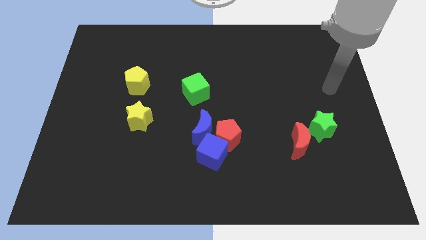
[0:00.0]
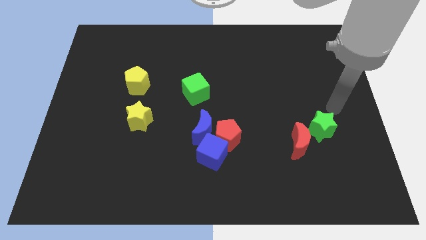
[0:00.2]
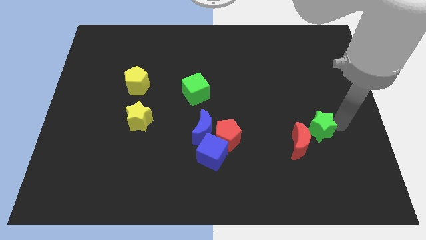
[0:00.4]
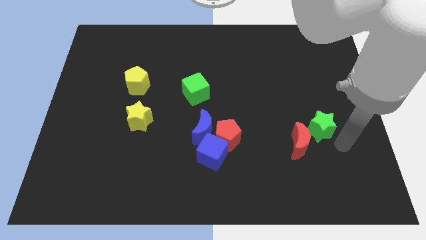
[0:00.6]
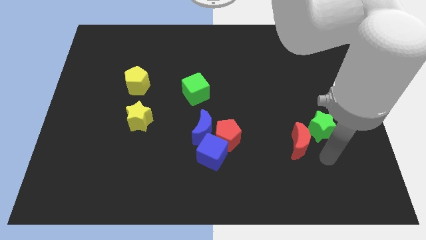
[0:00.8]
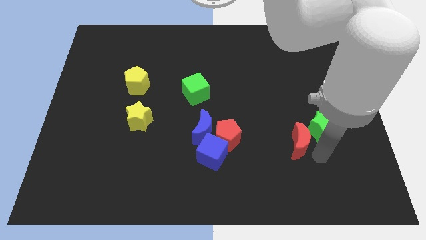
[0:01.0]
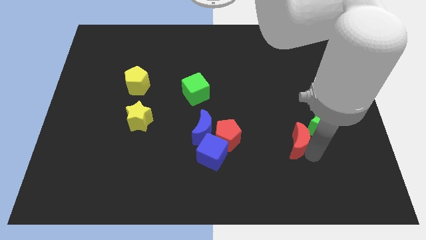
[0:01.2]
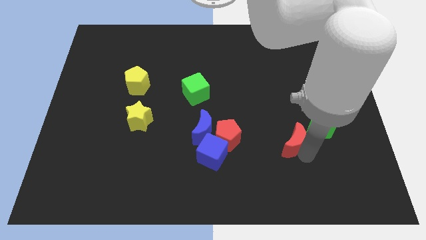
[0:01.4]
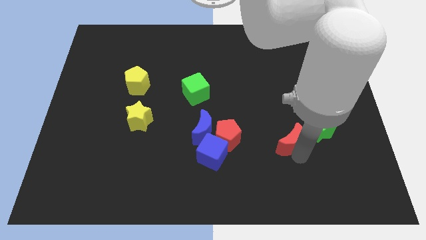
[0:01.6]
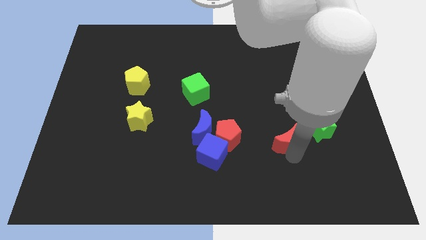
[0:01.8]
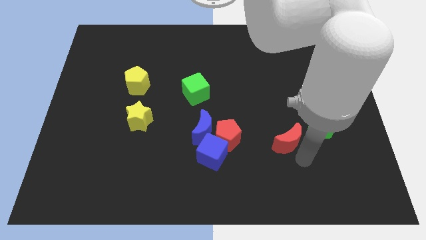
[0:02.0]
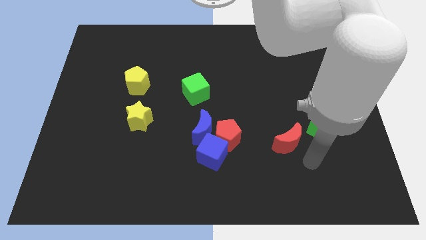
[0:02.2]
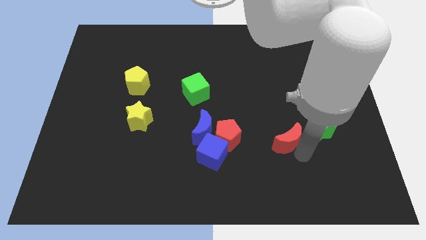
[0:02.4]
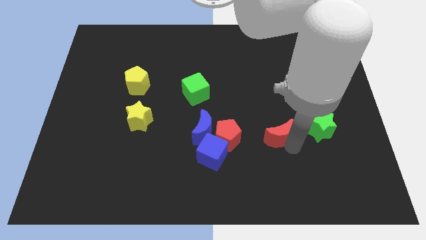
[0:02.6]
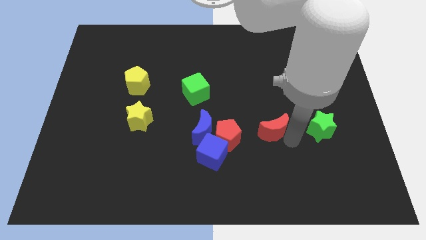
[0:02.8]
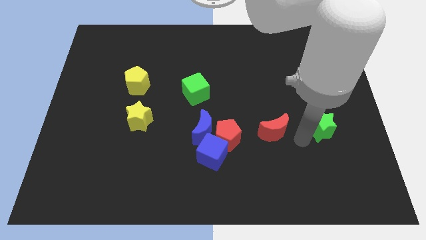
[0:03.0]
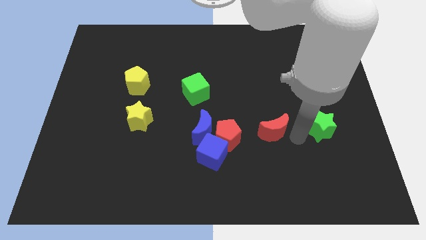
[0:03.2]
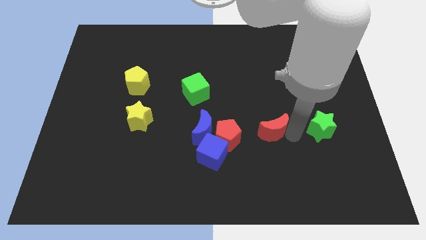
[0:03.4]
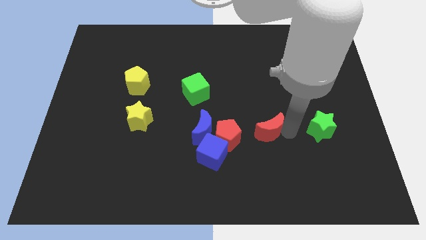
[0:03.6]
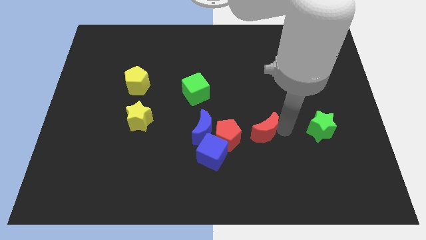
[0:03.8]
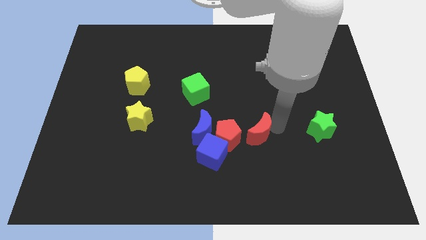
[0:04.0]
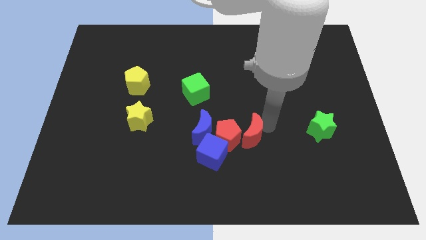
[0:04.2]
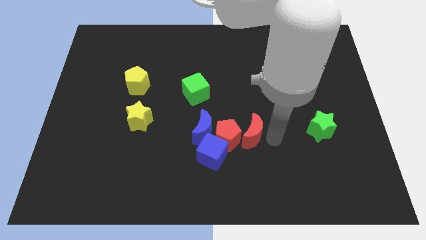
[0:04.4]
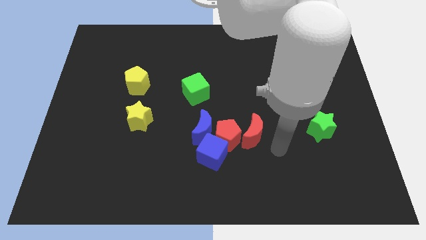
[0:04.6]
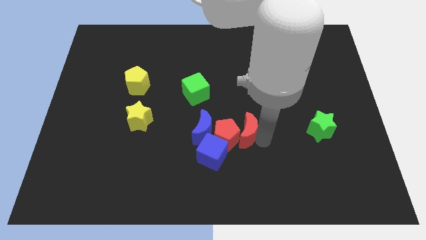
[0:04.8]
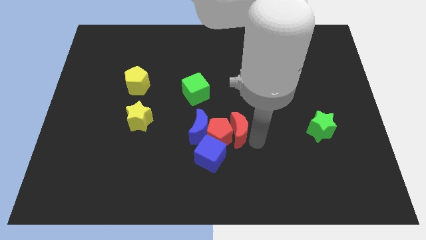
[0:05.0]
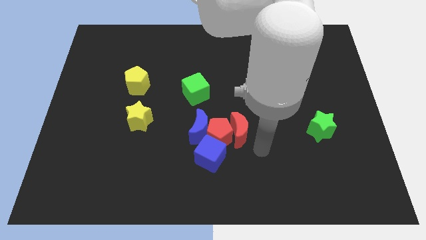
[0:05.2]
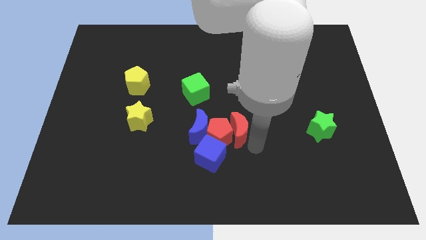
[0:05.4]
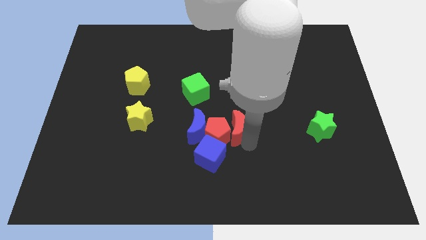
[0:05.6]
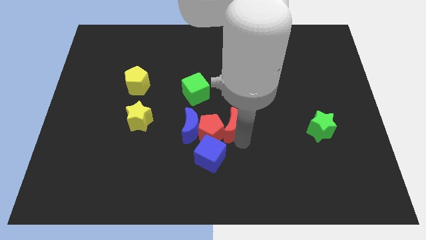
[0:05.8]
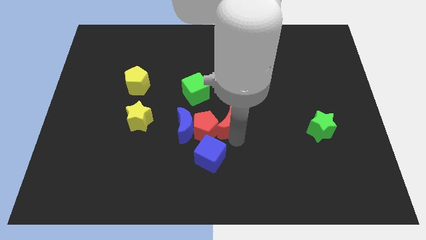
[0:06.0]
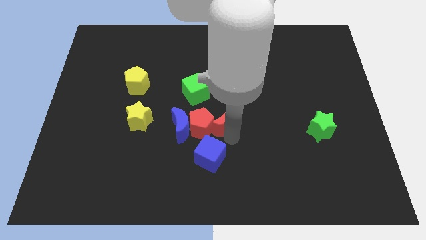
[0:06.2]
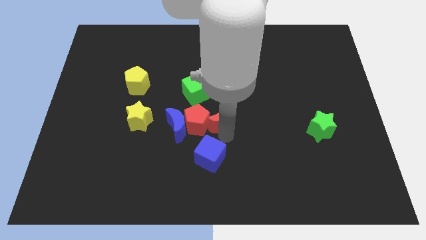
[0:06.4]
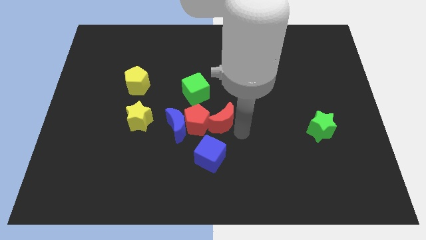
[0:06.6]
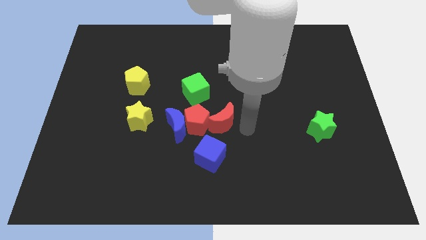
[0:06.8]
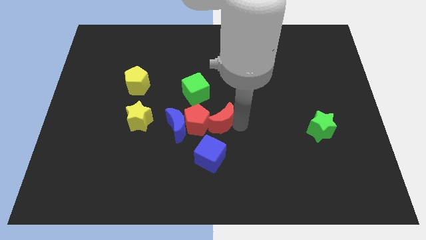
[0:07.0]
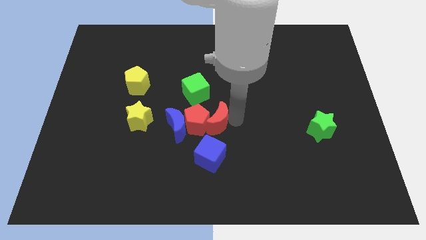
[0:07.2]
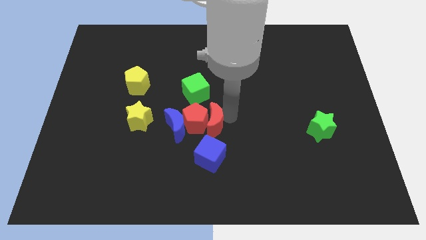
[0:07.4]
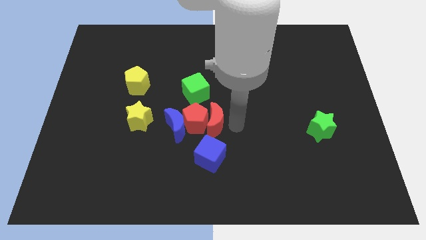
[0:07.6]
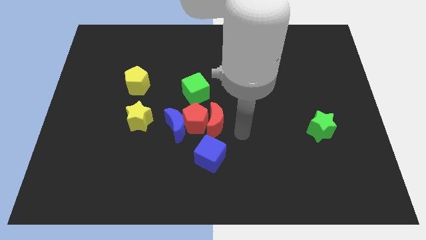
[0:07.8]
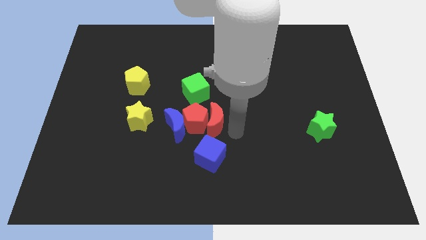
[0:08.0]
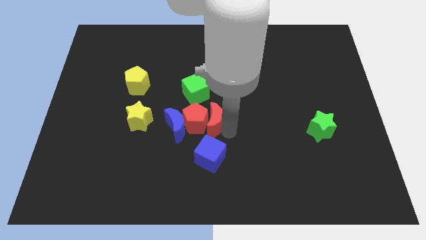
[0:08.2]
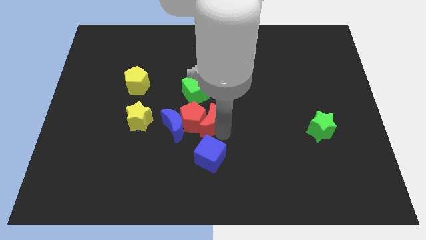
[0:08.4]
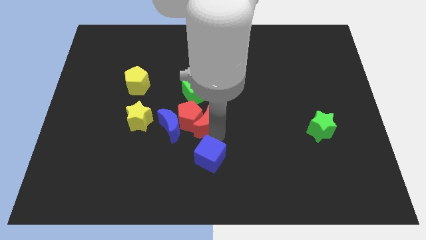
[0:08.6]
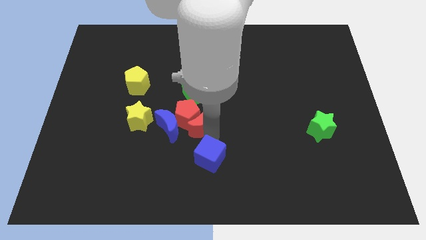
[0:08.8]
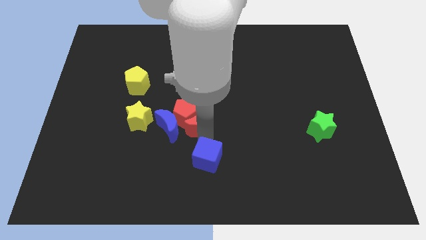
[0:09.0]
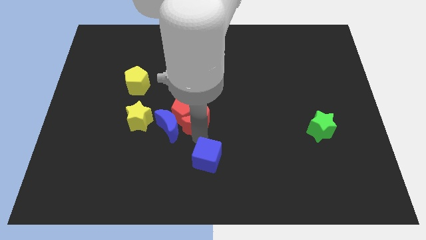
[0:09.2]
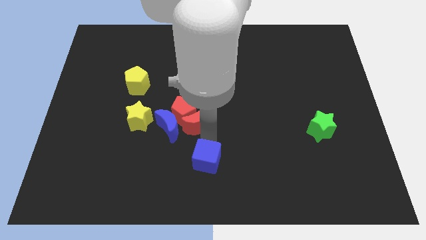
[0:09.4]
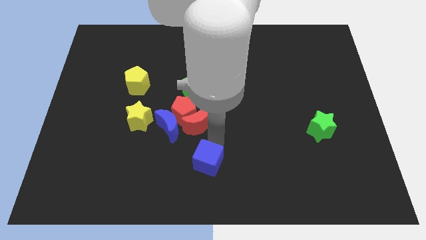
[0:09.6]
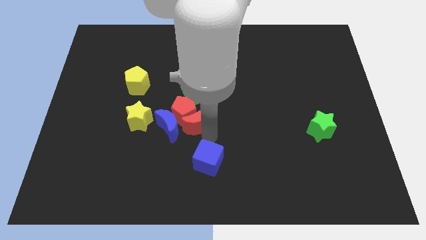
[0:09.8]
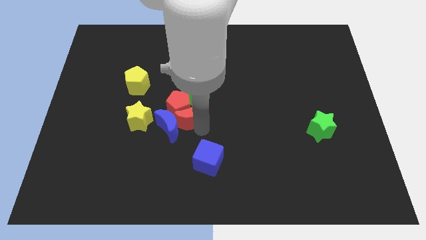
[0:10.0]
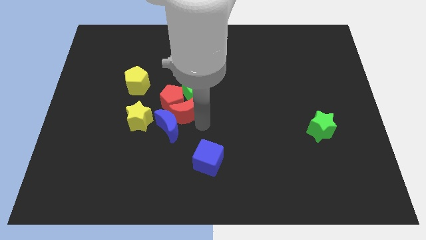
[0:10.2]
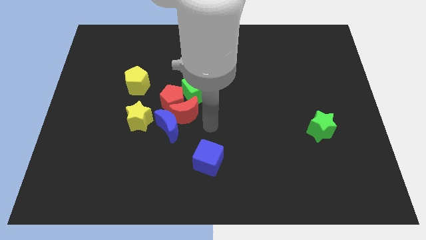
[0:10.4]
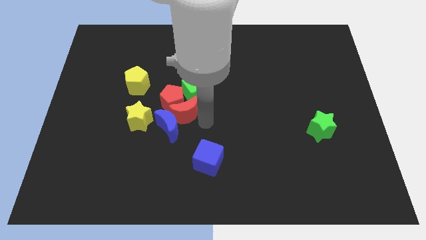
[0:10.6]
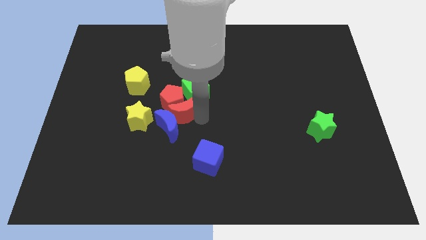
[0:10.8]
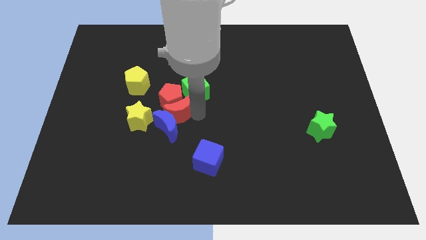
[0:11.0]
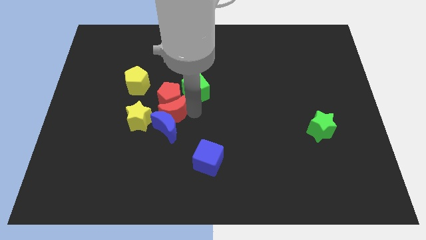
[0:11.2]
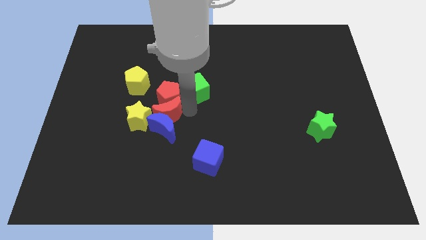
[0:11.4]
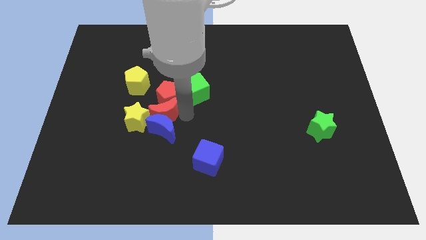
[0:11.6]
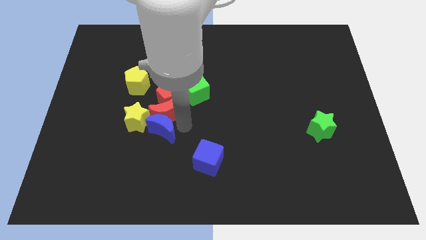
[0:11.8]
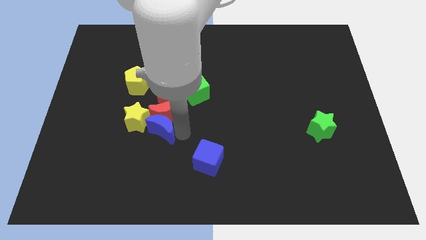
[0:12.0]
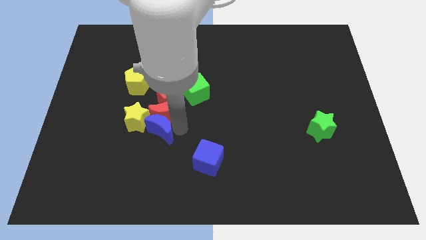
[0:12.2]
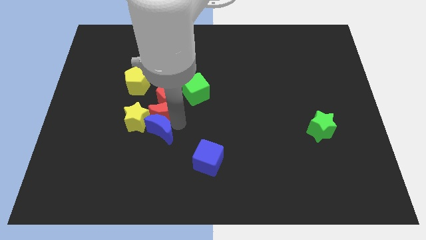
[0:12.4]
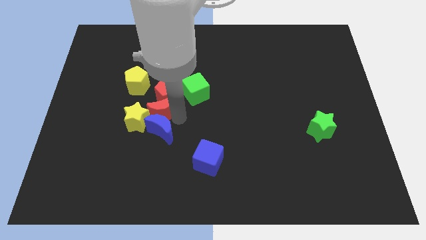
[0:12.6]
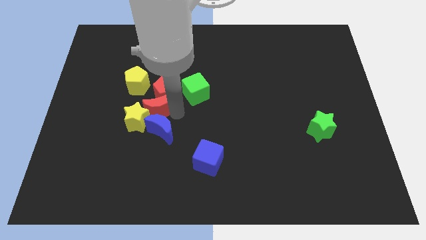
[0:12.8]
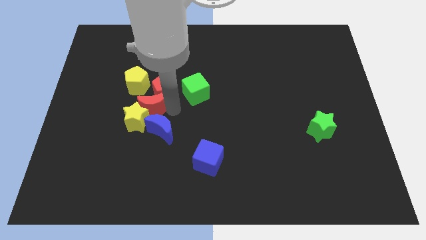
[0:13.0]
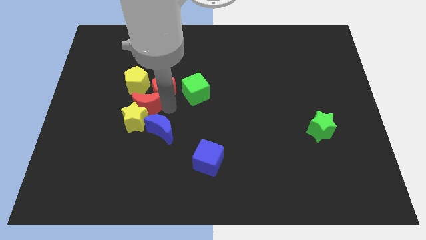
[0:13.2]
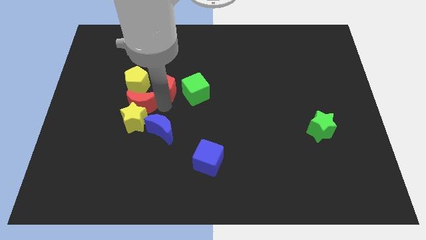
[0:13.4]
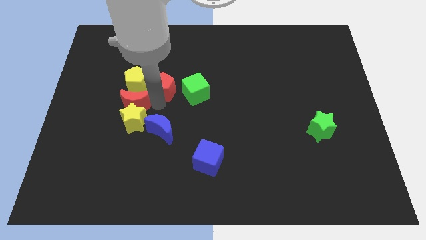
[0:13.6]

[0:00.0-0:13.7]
put the red moon close to the yellow pentagon

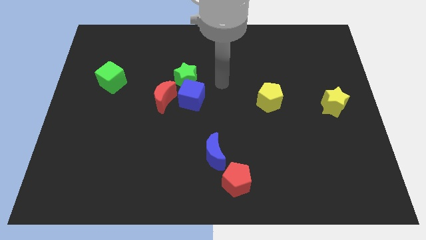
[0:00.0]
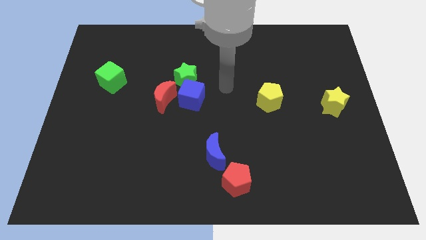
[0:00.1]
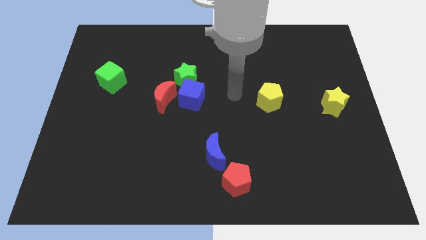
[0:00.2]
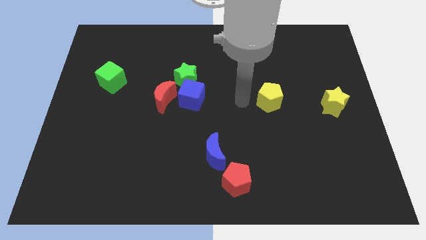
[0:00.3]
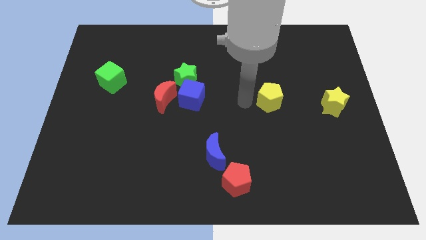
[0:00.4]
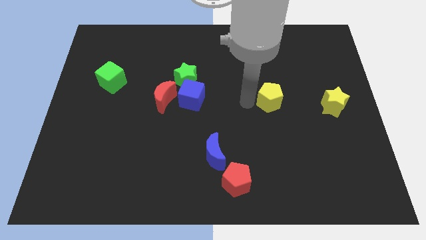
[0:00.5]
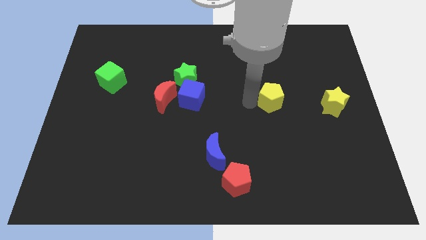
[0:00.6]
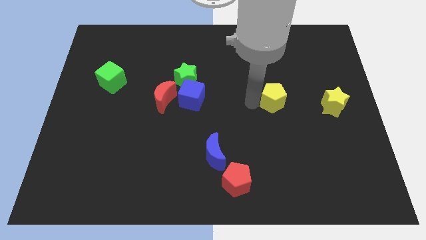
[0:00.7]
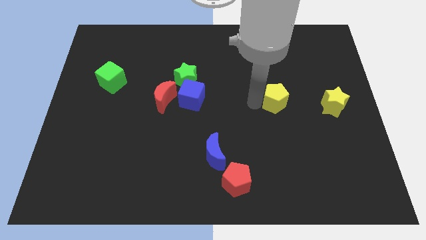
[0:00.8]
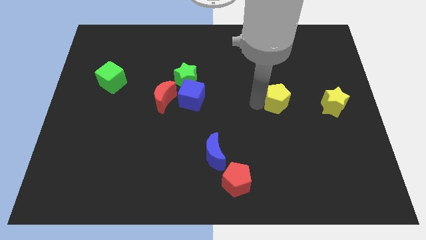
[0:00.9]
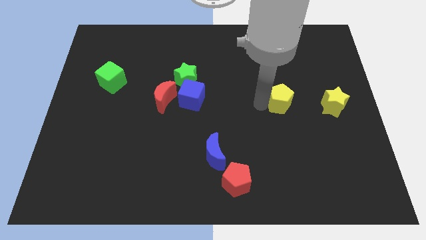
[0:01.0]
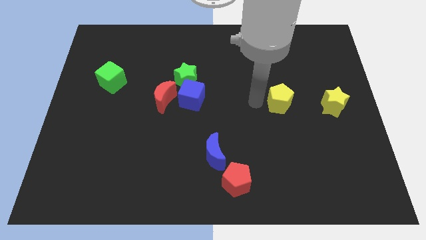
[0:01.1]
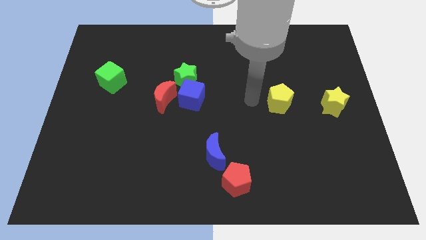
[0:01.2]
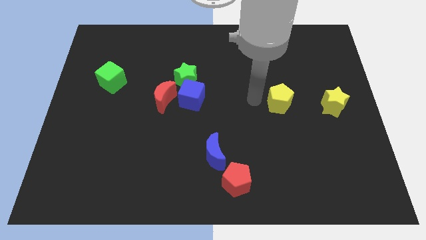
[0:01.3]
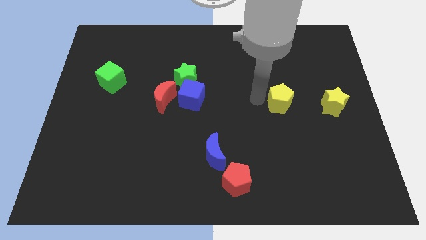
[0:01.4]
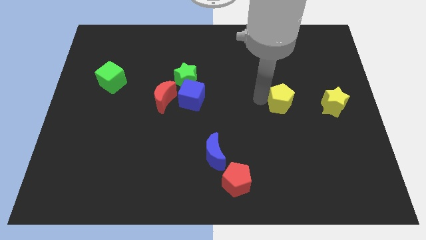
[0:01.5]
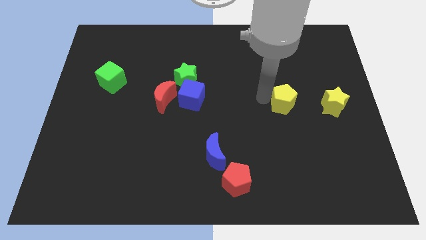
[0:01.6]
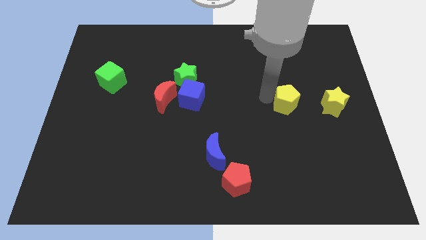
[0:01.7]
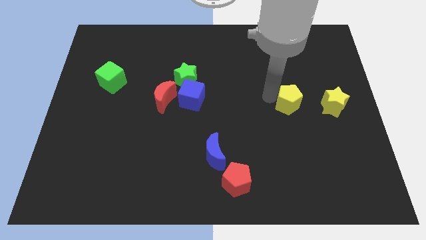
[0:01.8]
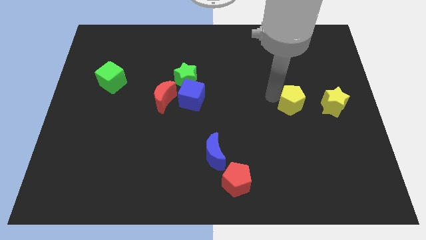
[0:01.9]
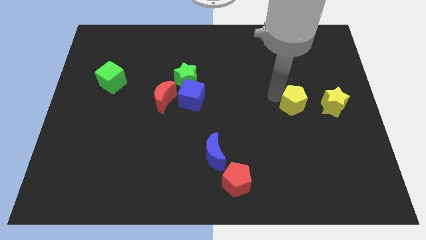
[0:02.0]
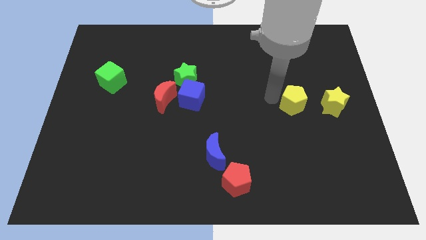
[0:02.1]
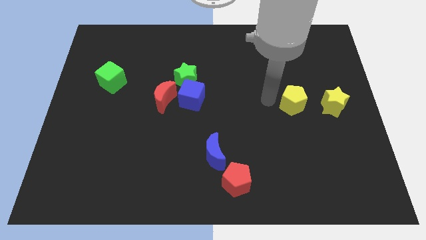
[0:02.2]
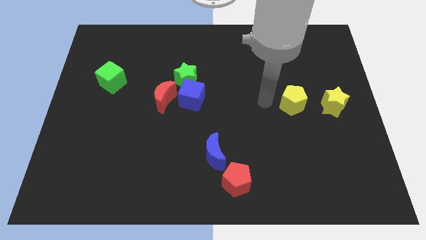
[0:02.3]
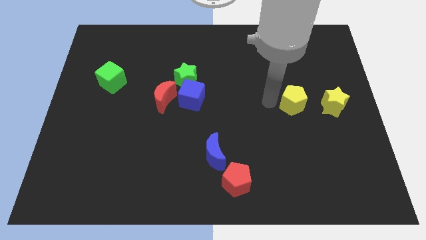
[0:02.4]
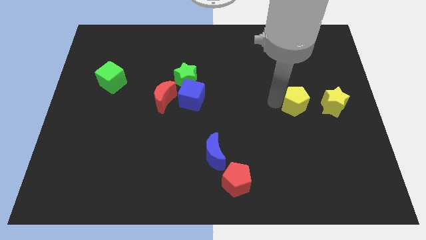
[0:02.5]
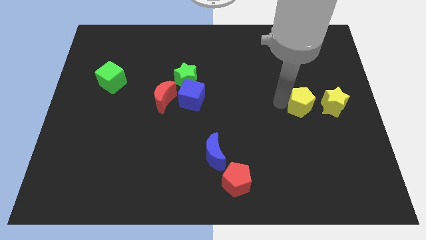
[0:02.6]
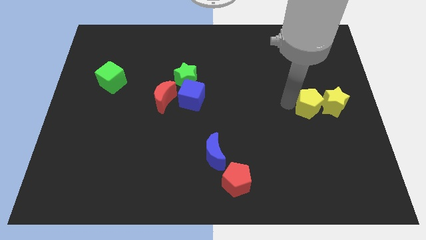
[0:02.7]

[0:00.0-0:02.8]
slide the yellow pentagon next to the yellow star
